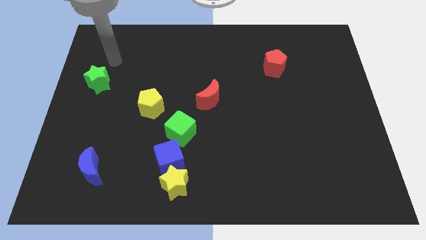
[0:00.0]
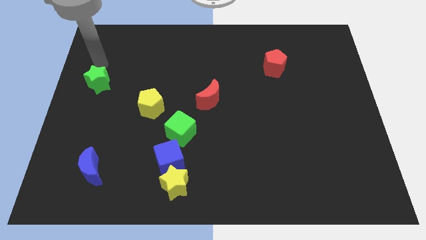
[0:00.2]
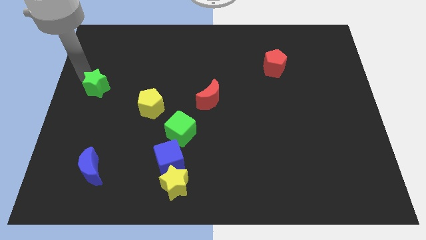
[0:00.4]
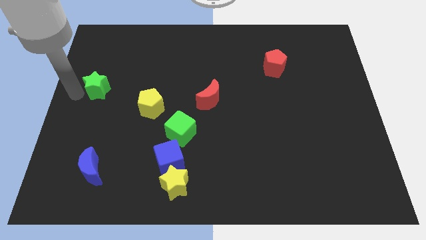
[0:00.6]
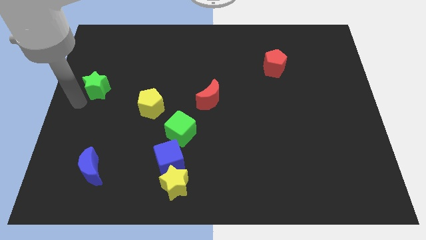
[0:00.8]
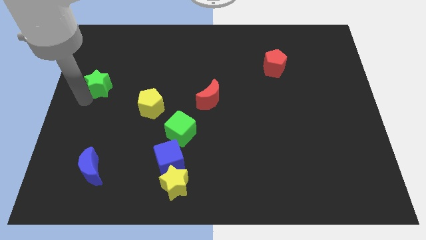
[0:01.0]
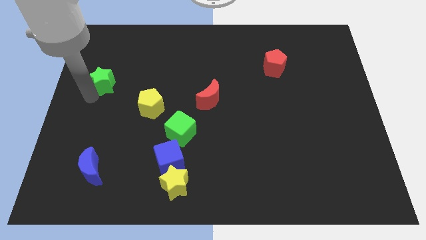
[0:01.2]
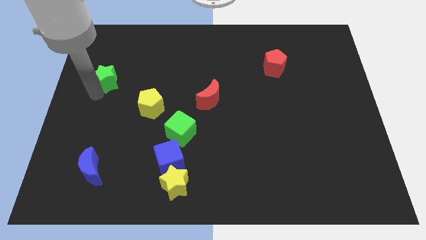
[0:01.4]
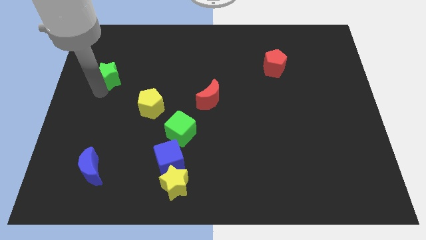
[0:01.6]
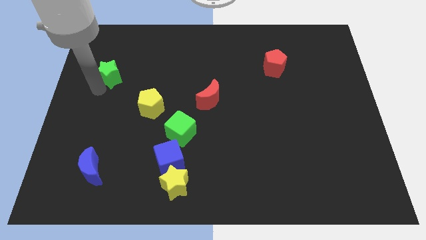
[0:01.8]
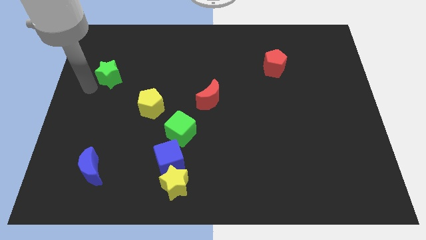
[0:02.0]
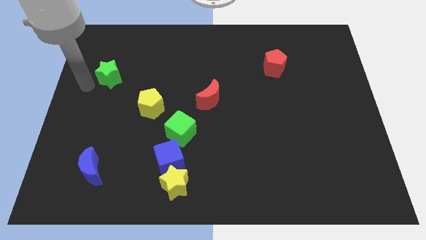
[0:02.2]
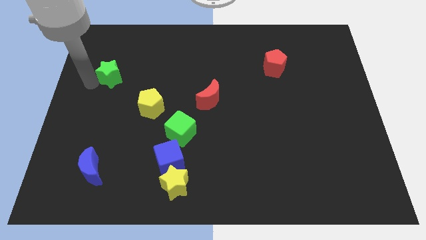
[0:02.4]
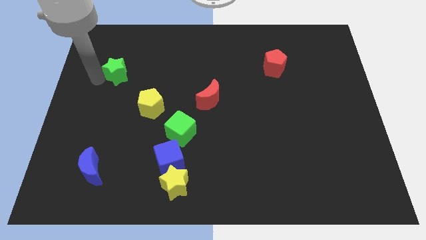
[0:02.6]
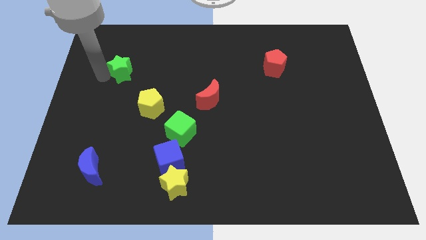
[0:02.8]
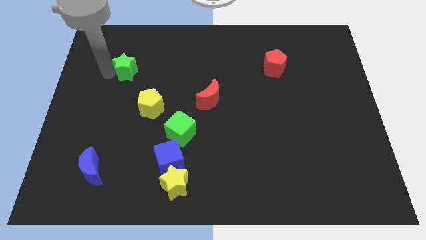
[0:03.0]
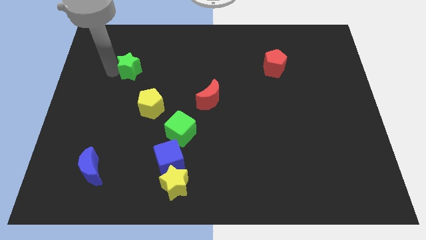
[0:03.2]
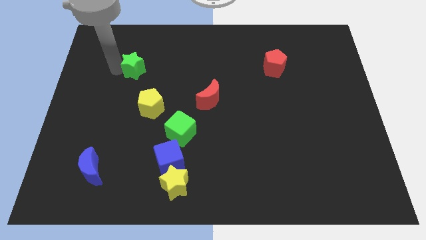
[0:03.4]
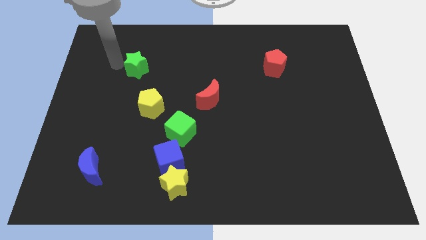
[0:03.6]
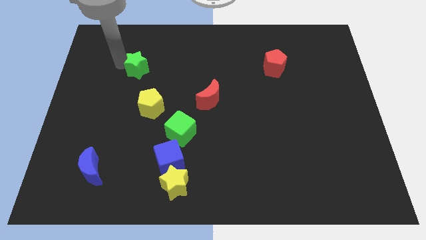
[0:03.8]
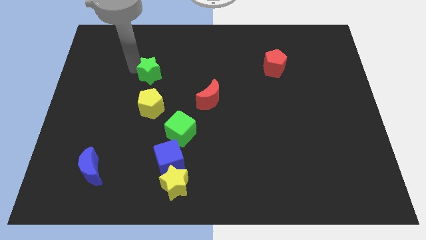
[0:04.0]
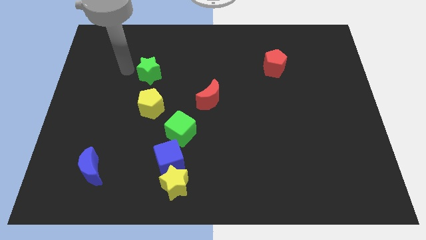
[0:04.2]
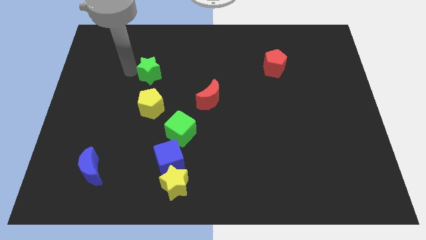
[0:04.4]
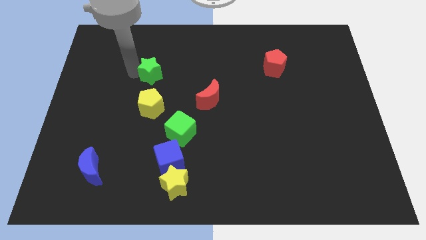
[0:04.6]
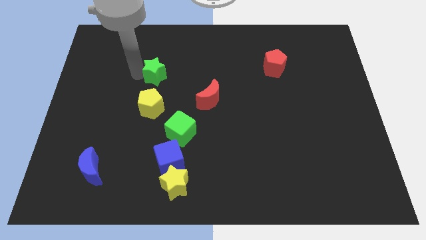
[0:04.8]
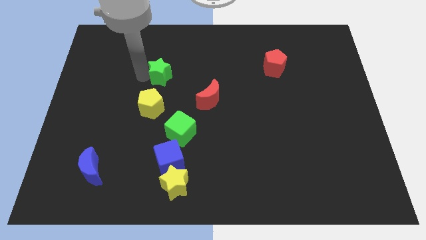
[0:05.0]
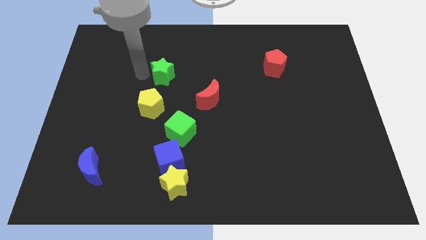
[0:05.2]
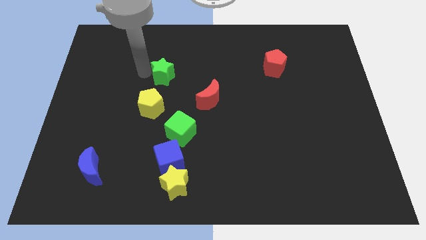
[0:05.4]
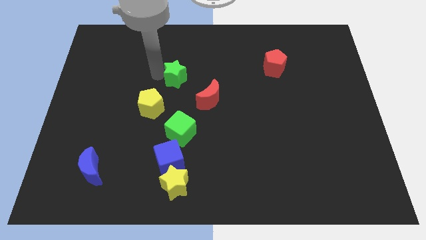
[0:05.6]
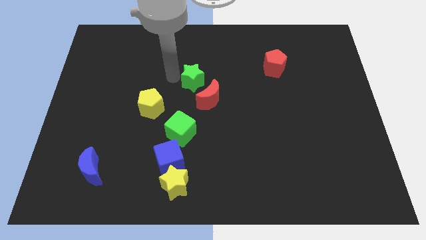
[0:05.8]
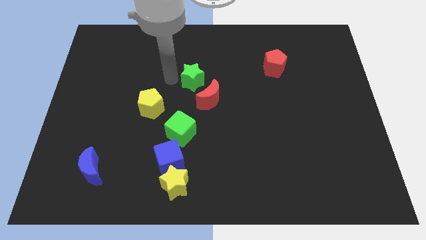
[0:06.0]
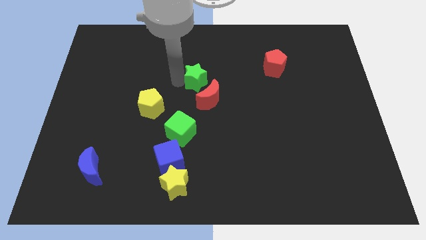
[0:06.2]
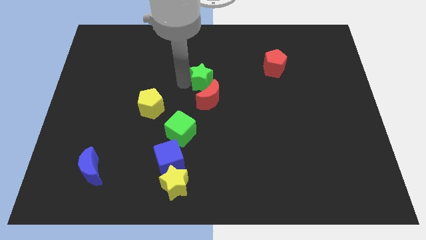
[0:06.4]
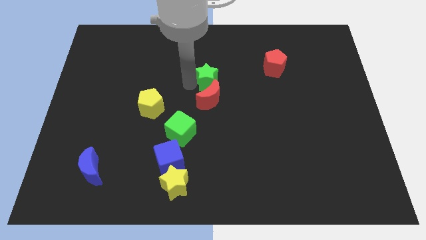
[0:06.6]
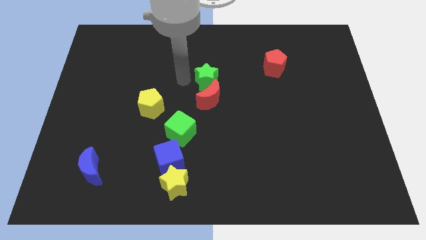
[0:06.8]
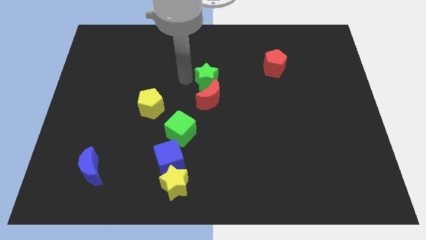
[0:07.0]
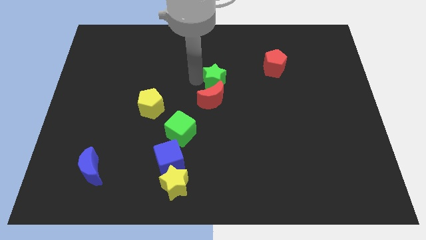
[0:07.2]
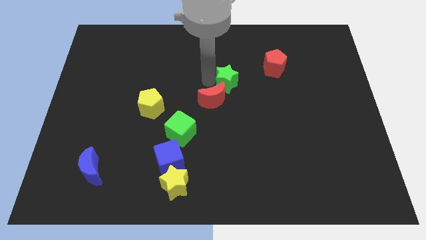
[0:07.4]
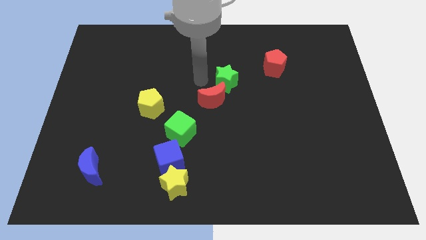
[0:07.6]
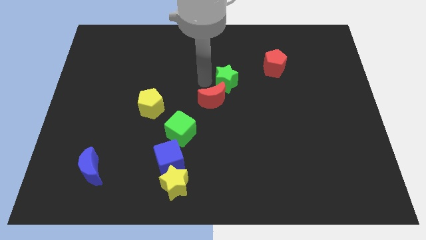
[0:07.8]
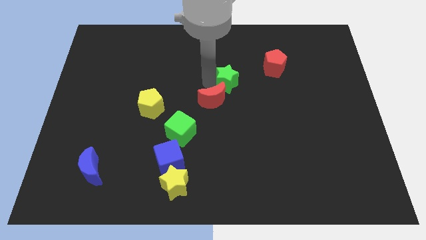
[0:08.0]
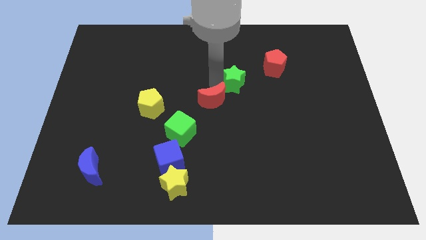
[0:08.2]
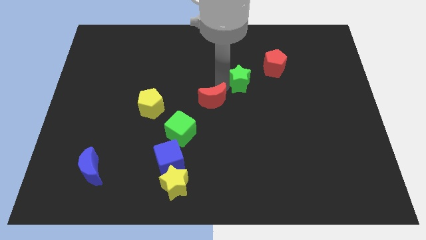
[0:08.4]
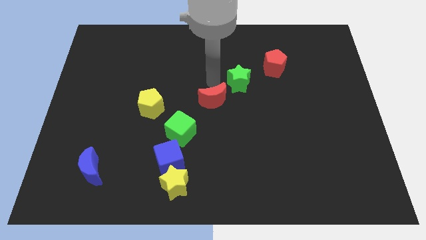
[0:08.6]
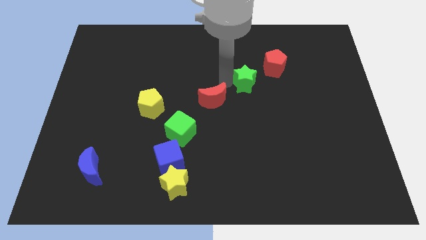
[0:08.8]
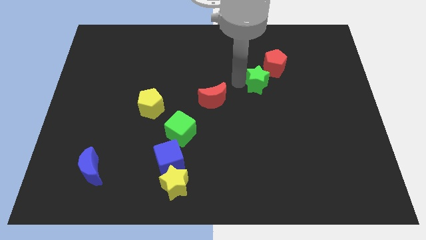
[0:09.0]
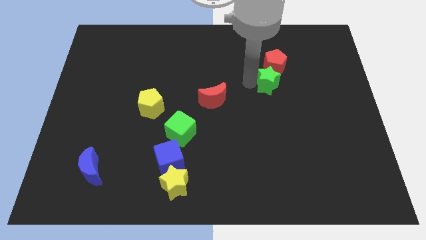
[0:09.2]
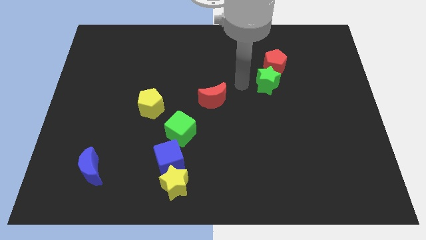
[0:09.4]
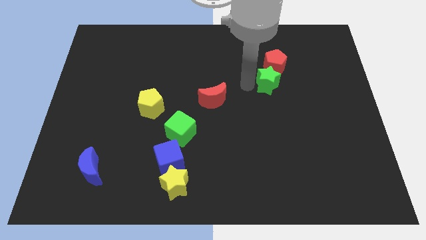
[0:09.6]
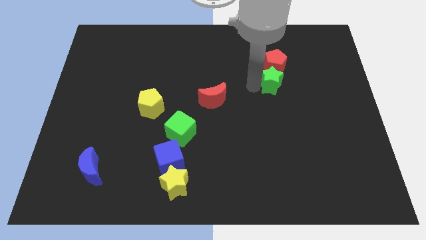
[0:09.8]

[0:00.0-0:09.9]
push the green star to the bottom right of the red pentagon

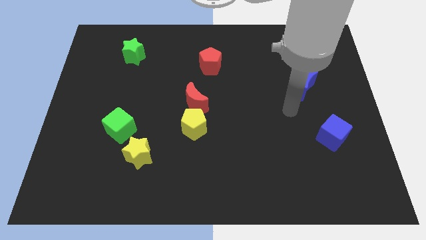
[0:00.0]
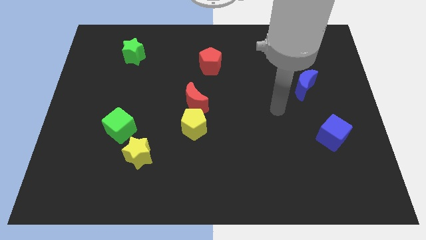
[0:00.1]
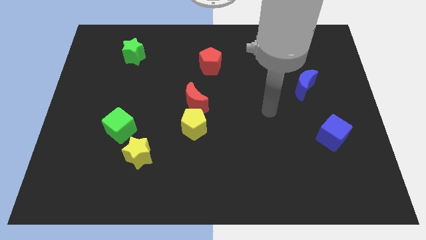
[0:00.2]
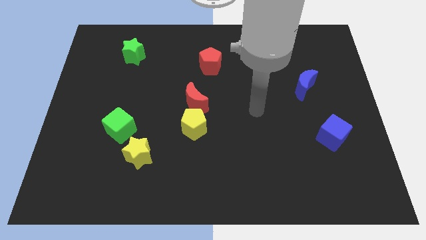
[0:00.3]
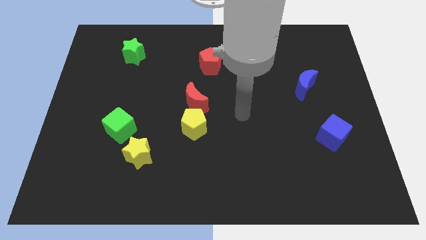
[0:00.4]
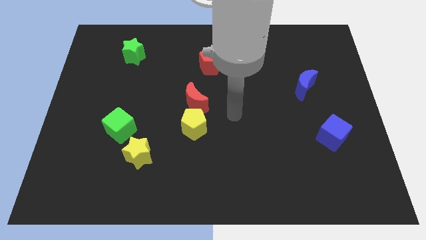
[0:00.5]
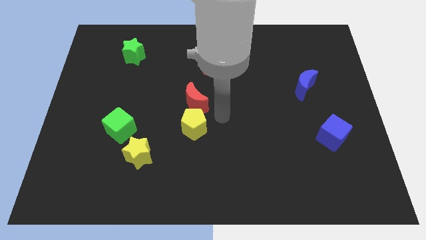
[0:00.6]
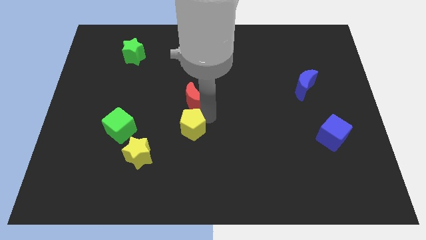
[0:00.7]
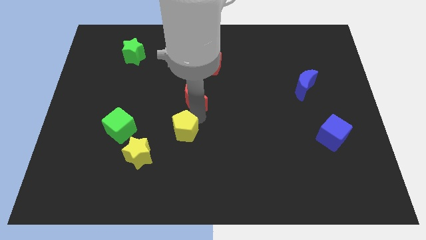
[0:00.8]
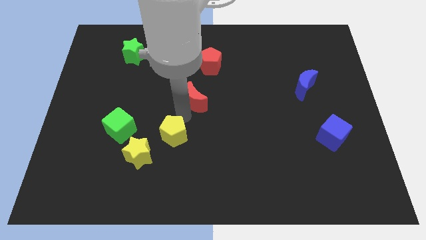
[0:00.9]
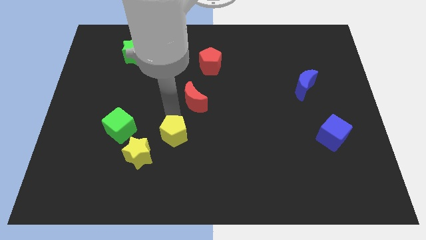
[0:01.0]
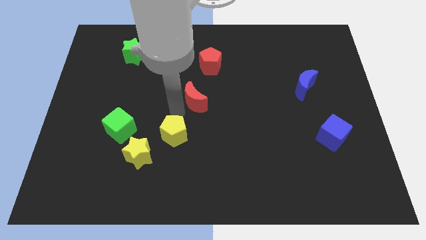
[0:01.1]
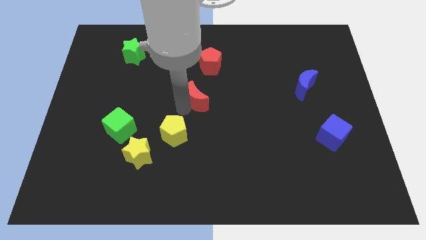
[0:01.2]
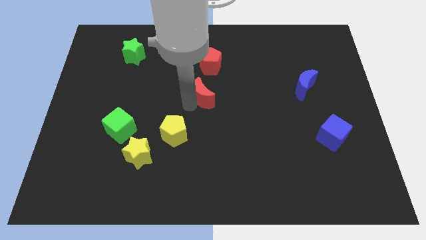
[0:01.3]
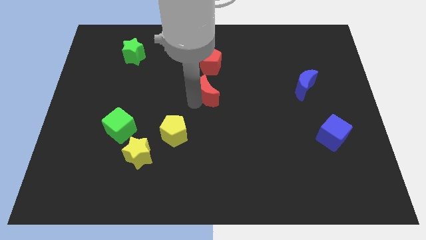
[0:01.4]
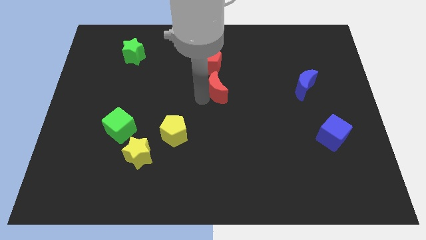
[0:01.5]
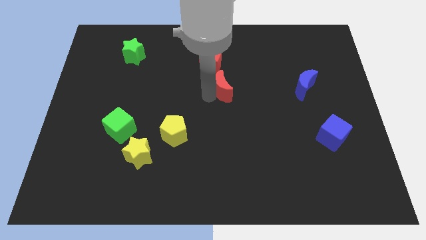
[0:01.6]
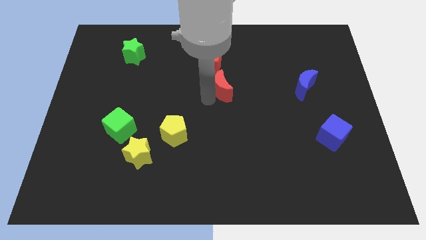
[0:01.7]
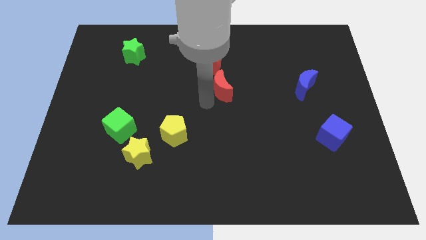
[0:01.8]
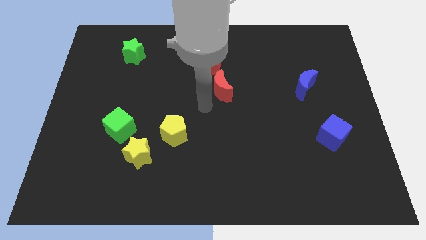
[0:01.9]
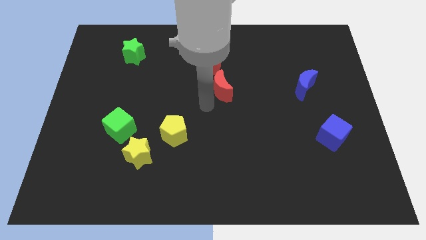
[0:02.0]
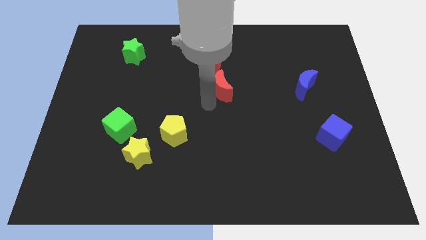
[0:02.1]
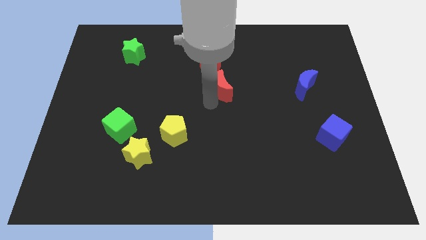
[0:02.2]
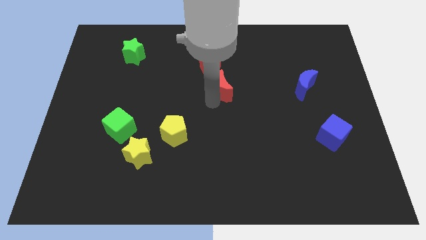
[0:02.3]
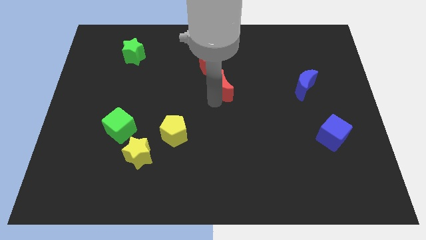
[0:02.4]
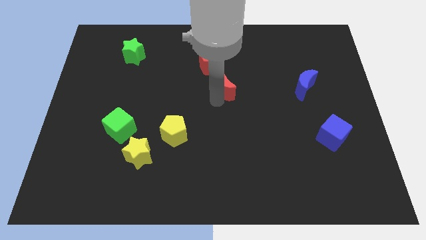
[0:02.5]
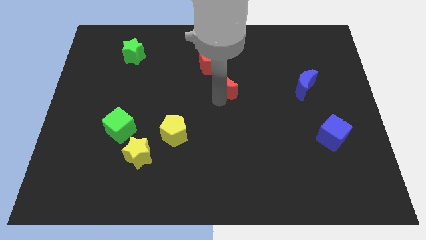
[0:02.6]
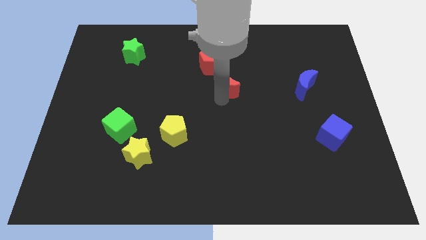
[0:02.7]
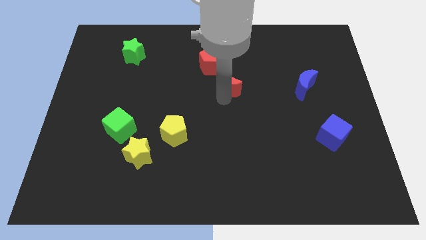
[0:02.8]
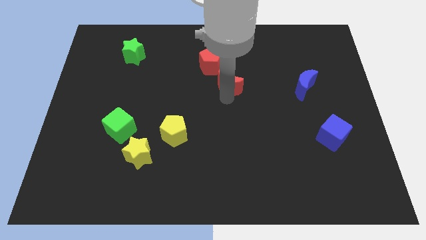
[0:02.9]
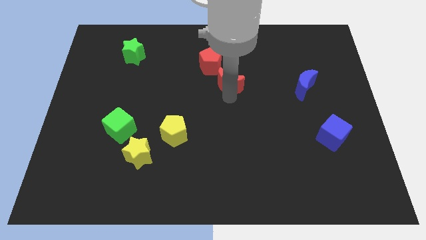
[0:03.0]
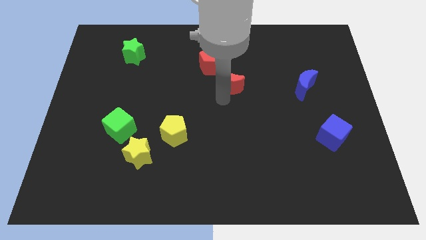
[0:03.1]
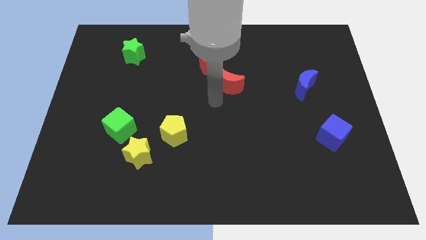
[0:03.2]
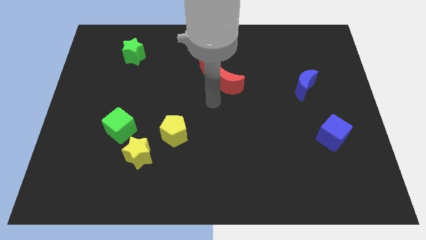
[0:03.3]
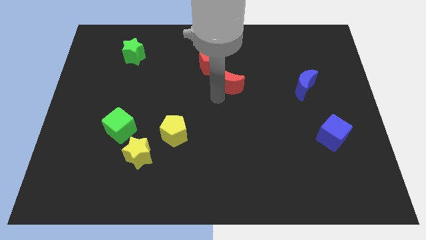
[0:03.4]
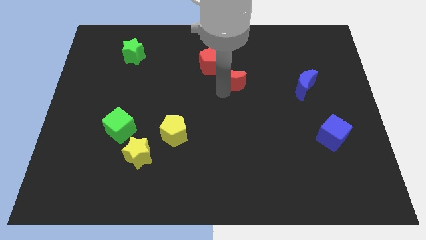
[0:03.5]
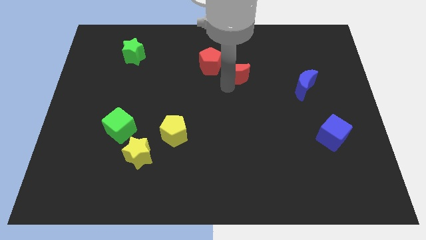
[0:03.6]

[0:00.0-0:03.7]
move the red moon just right of the red pentagon
